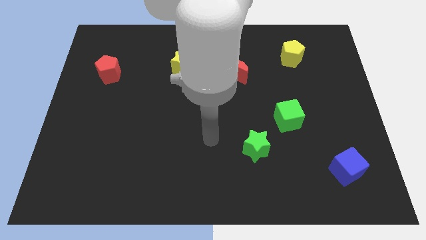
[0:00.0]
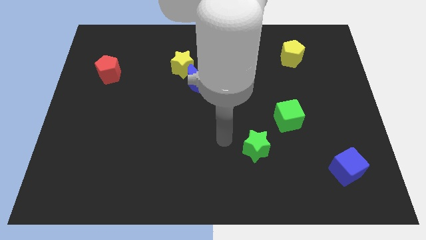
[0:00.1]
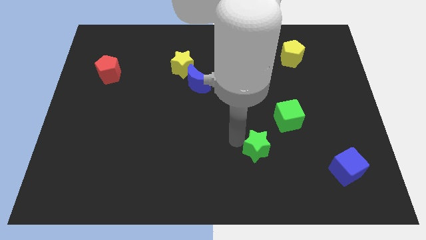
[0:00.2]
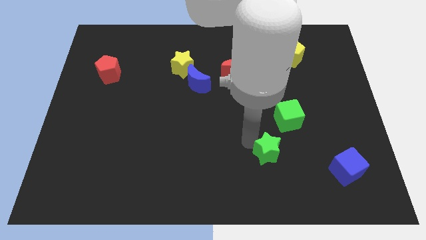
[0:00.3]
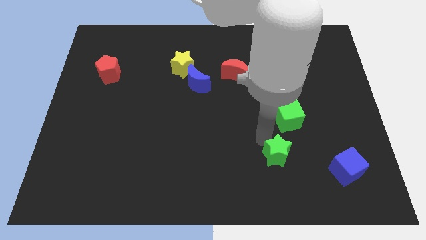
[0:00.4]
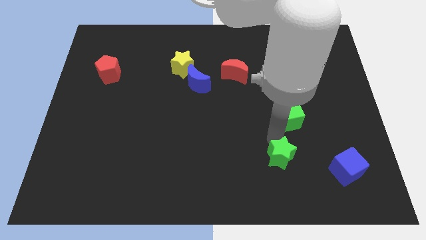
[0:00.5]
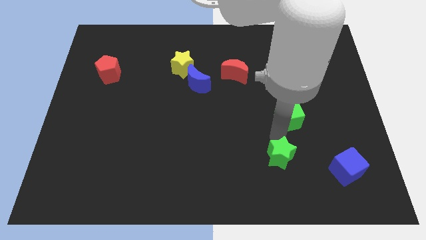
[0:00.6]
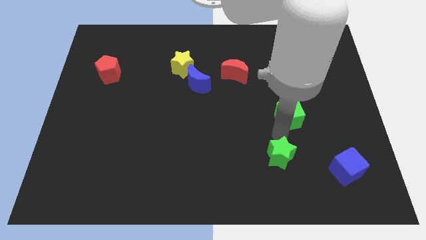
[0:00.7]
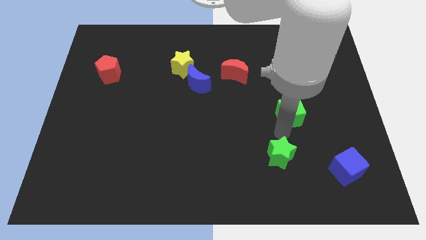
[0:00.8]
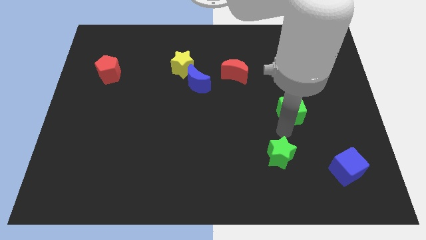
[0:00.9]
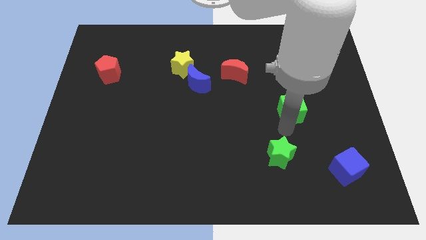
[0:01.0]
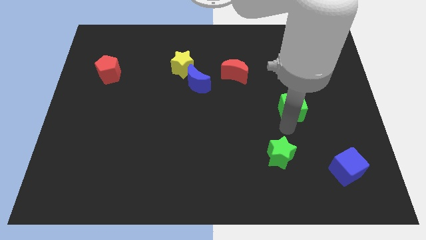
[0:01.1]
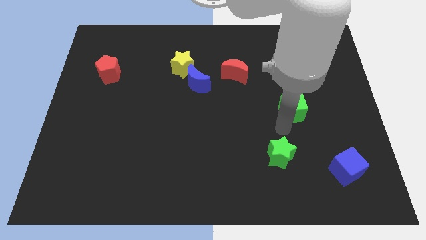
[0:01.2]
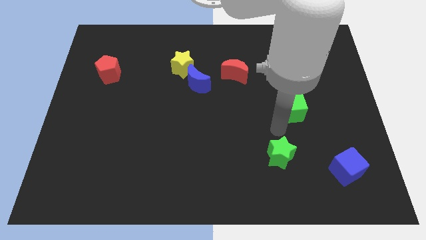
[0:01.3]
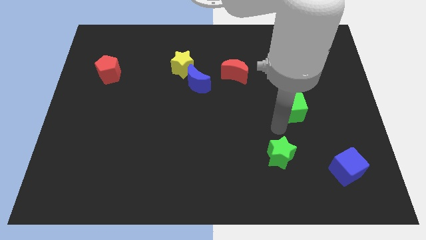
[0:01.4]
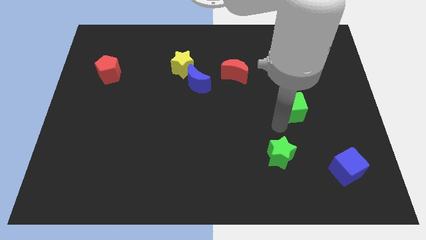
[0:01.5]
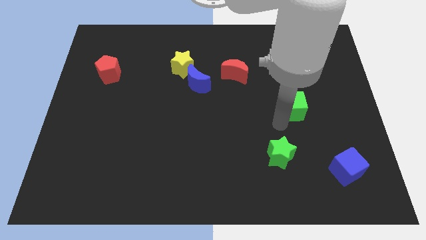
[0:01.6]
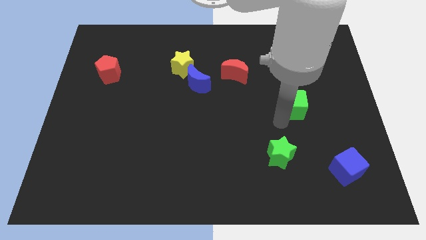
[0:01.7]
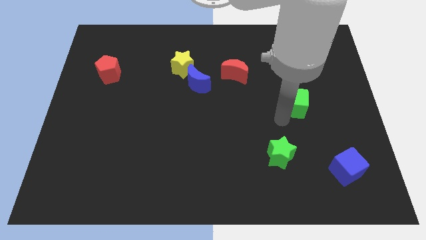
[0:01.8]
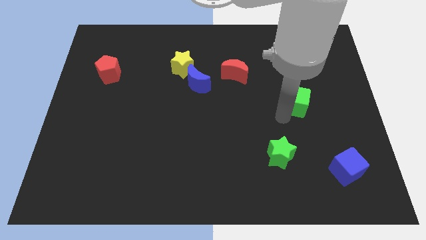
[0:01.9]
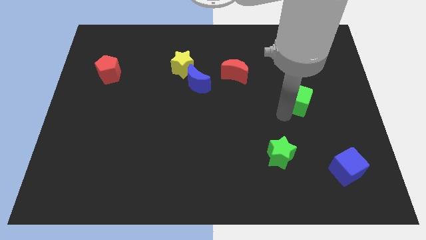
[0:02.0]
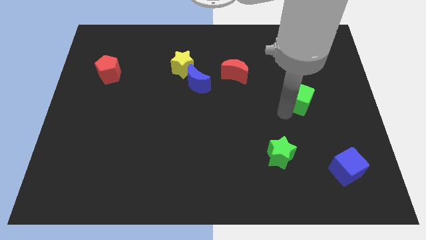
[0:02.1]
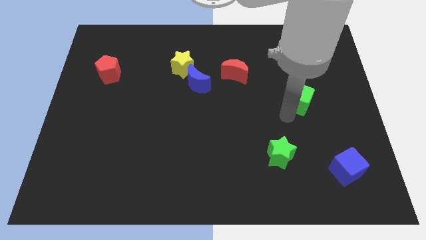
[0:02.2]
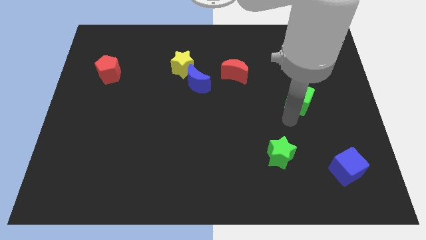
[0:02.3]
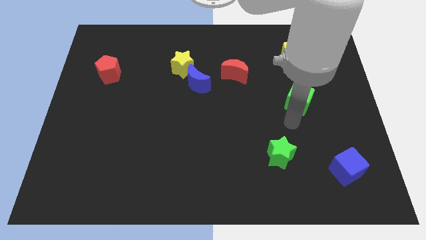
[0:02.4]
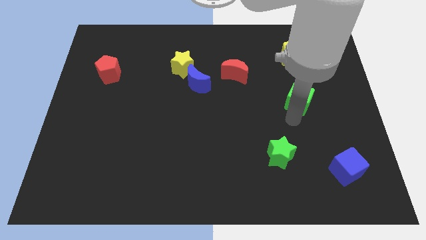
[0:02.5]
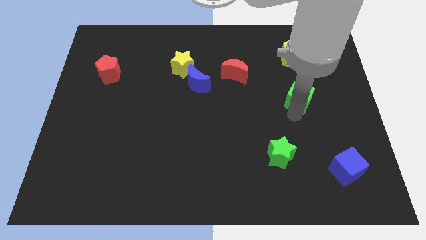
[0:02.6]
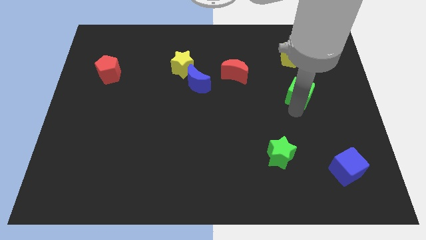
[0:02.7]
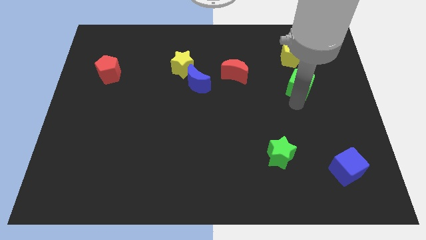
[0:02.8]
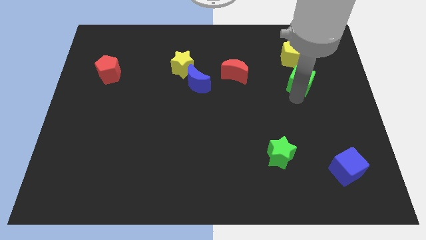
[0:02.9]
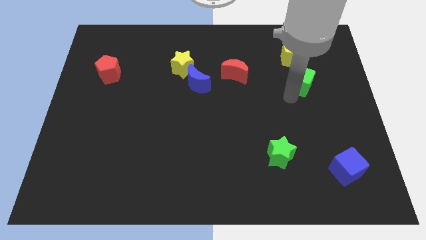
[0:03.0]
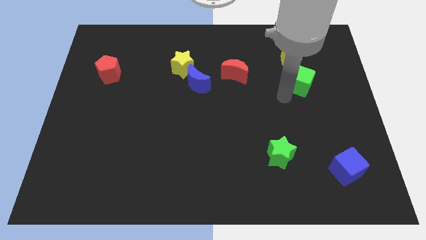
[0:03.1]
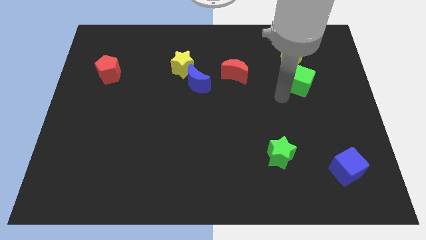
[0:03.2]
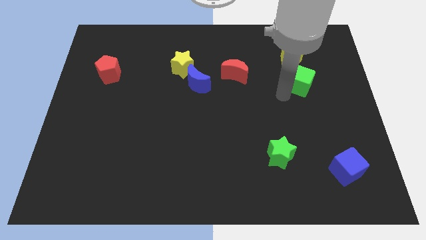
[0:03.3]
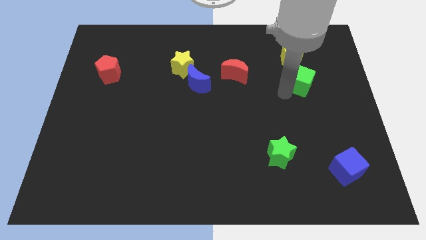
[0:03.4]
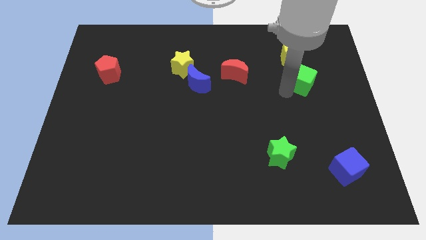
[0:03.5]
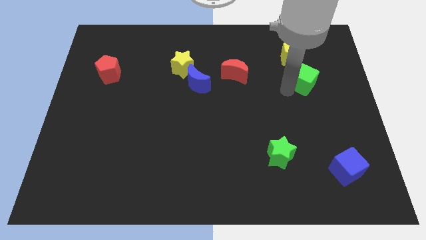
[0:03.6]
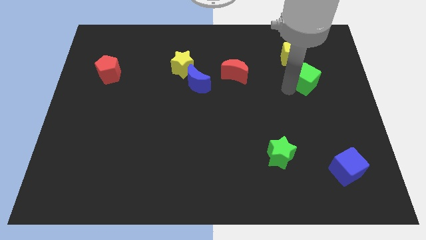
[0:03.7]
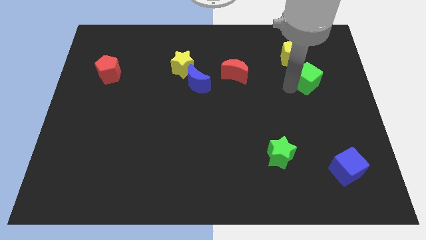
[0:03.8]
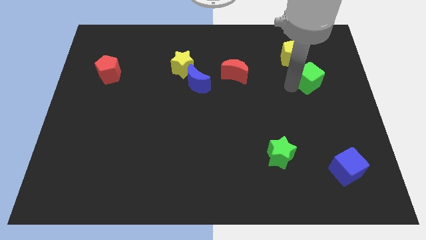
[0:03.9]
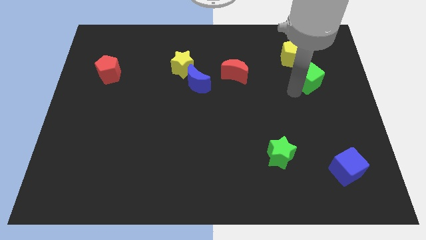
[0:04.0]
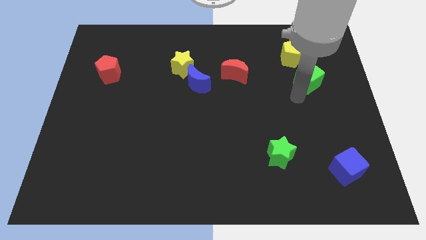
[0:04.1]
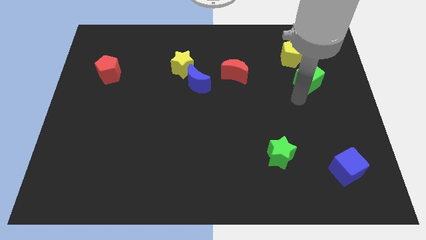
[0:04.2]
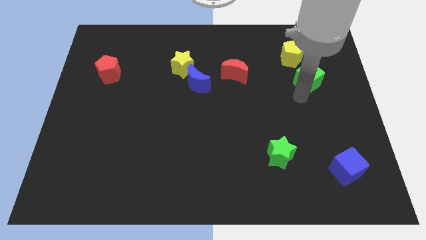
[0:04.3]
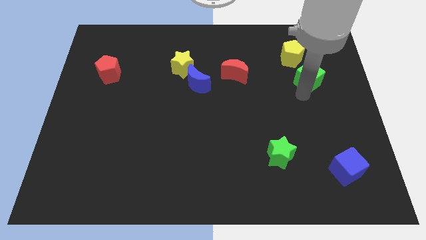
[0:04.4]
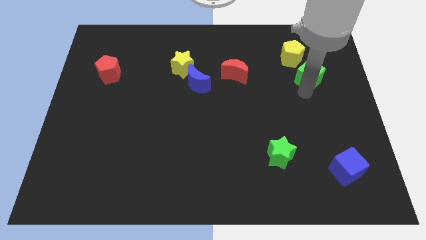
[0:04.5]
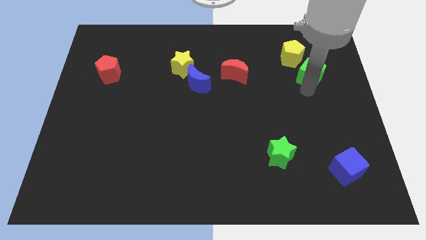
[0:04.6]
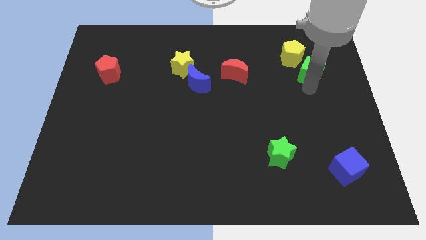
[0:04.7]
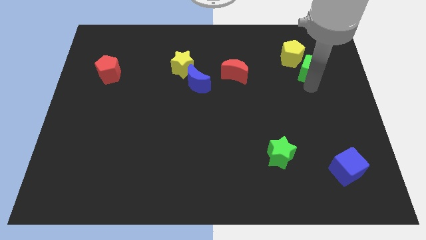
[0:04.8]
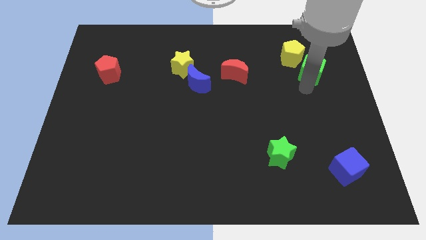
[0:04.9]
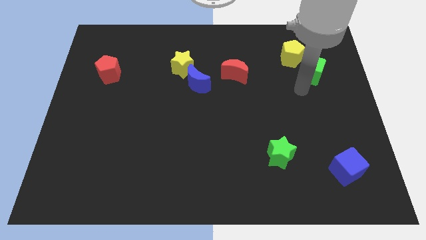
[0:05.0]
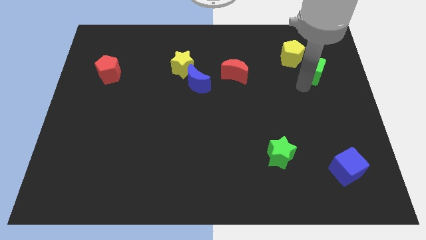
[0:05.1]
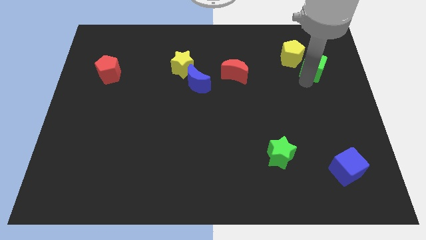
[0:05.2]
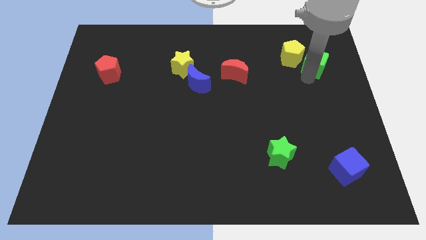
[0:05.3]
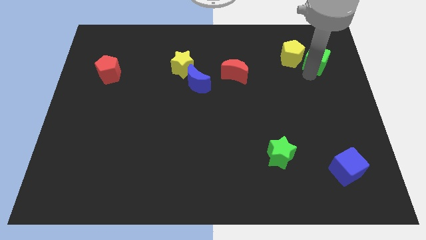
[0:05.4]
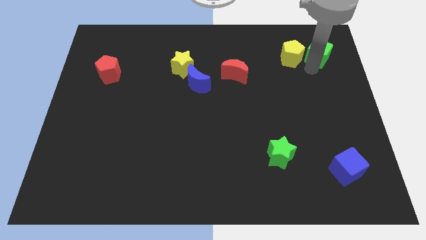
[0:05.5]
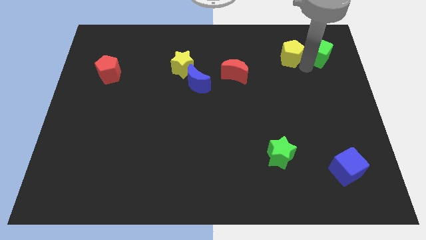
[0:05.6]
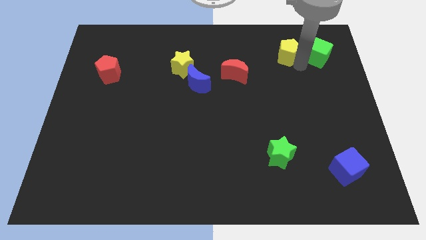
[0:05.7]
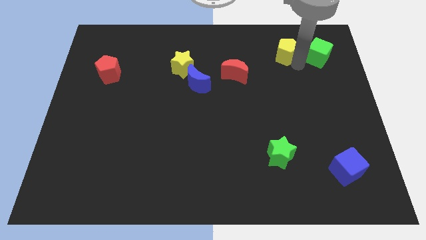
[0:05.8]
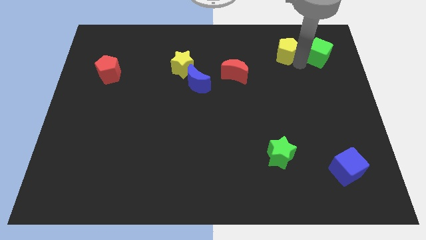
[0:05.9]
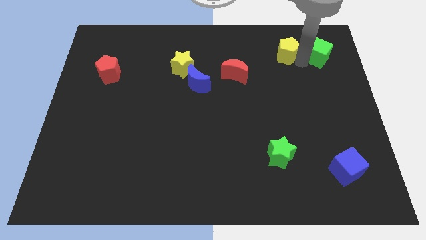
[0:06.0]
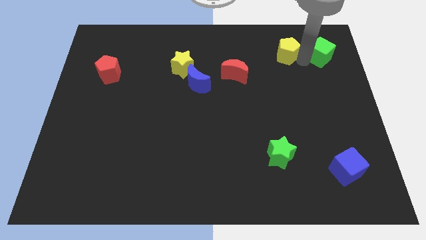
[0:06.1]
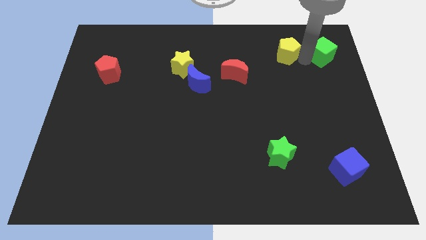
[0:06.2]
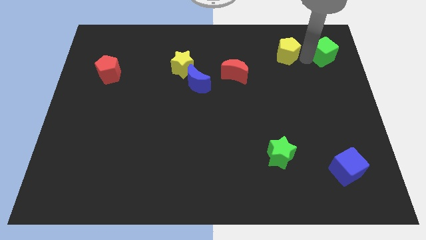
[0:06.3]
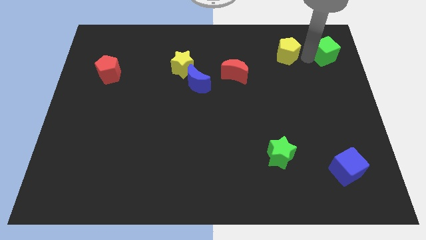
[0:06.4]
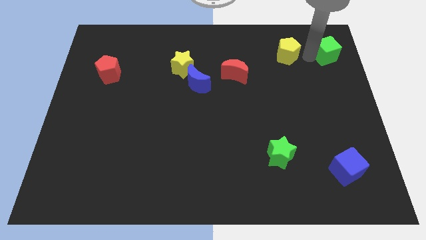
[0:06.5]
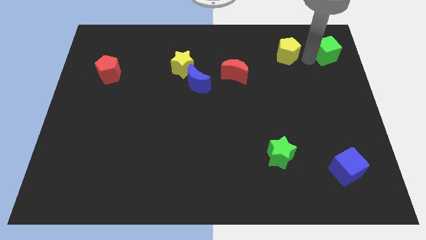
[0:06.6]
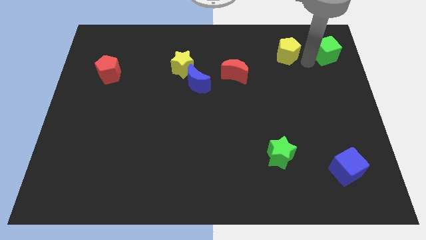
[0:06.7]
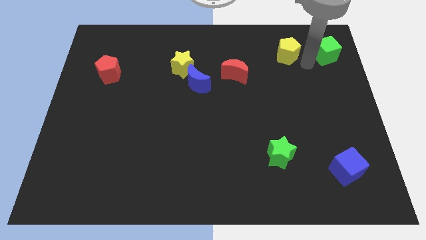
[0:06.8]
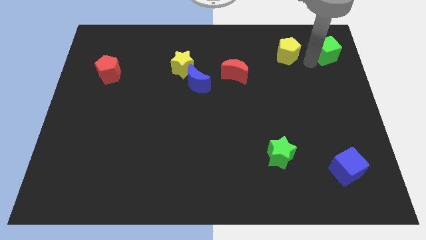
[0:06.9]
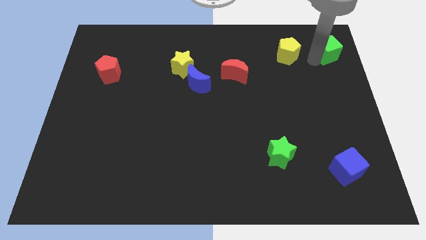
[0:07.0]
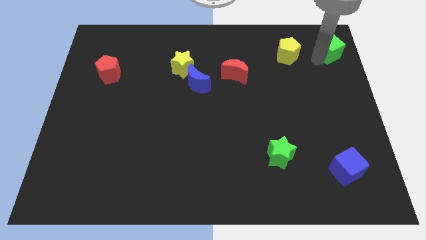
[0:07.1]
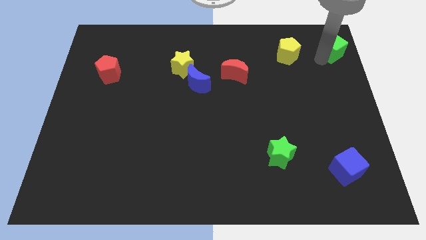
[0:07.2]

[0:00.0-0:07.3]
slide the green cube to the top right

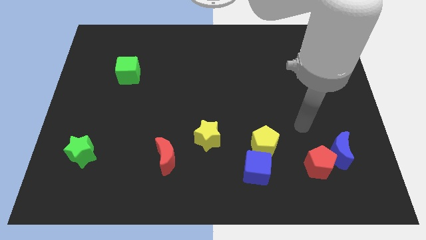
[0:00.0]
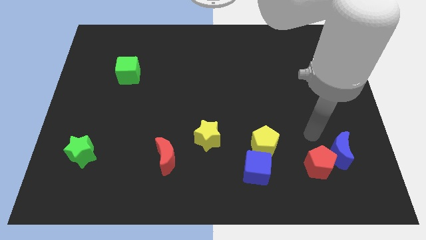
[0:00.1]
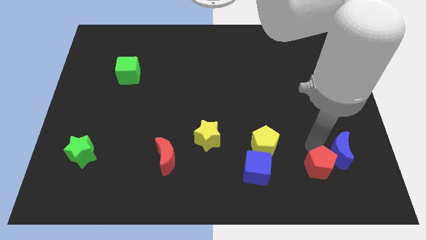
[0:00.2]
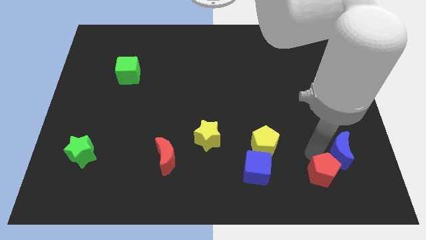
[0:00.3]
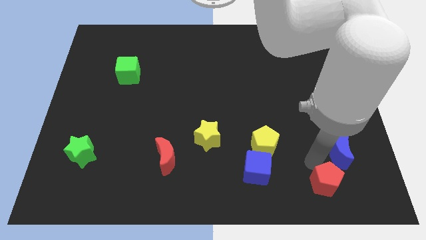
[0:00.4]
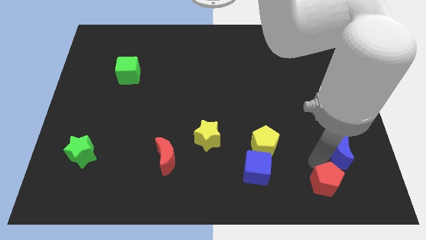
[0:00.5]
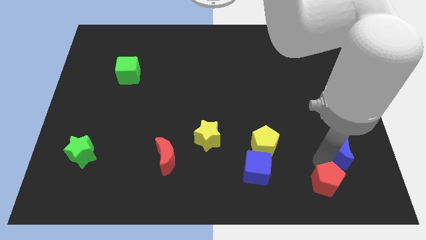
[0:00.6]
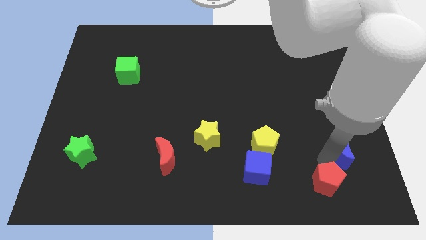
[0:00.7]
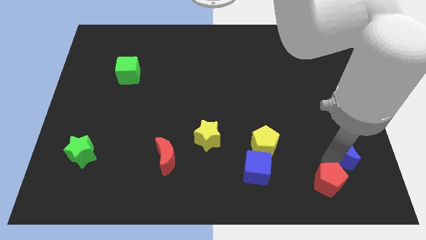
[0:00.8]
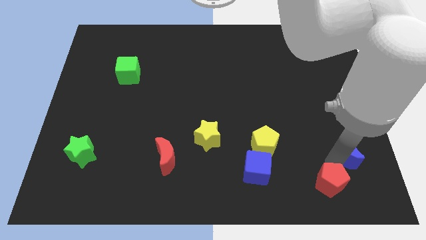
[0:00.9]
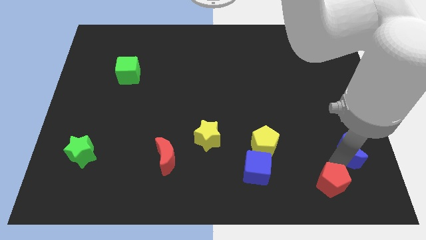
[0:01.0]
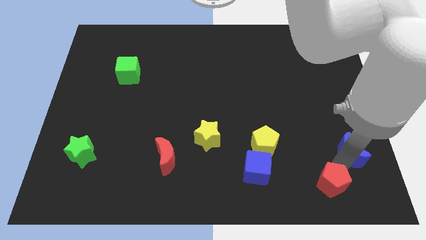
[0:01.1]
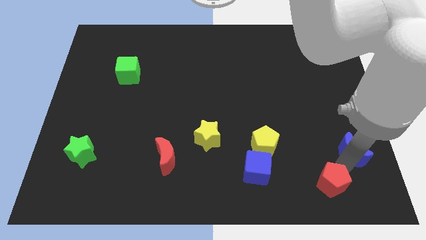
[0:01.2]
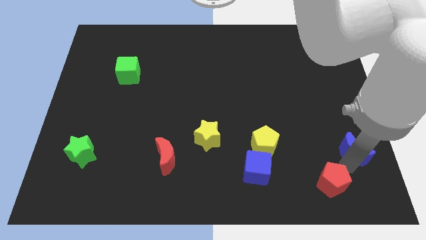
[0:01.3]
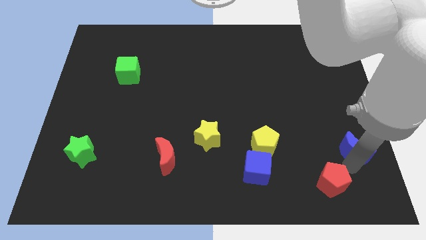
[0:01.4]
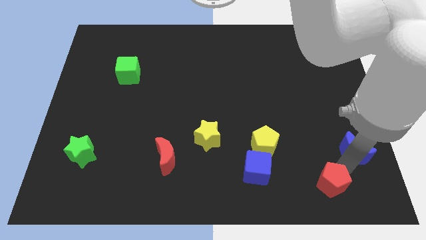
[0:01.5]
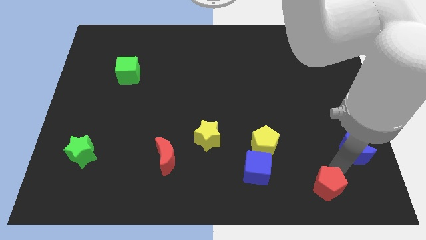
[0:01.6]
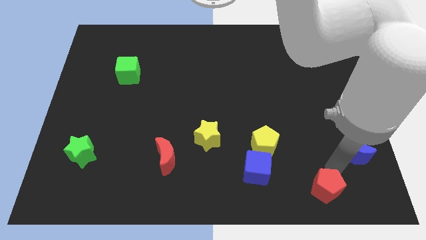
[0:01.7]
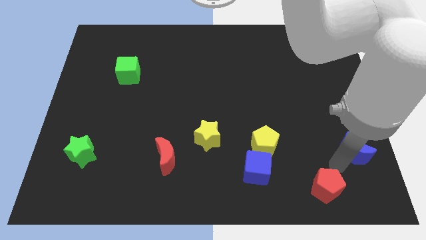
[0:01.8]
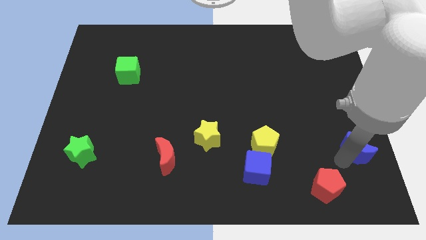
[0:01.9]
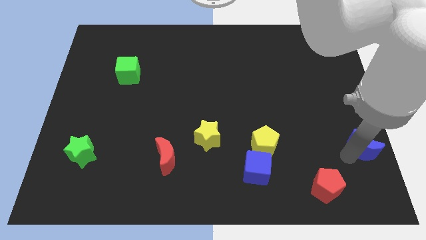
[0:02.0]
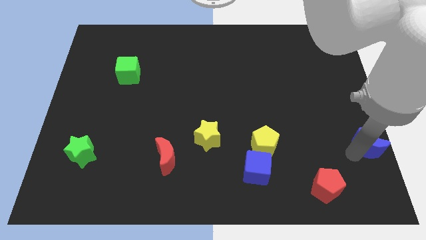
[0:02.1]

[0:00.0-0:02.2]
put the blue moon to the right side
